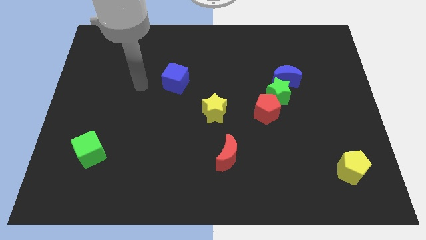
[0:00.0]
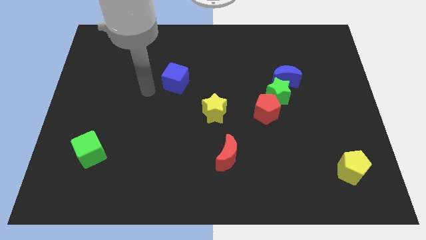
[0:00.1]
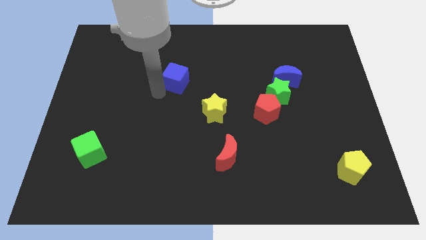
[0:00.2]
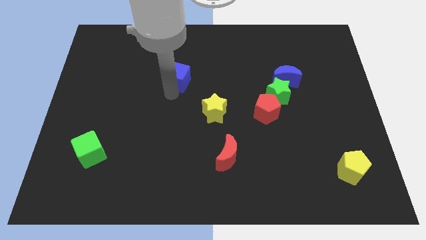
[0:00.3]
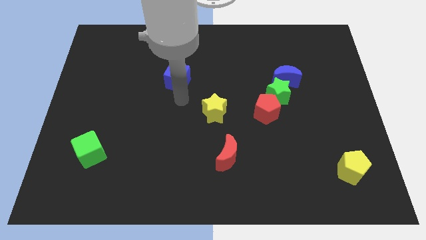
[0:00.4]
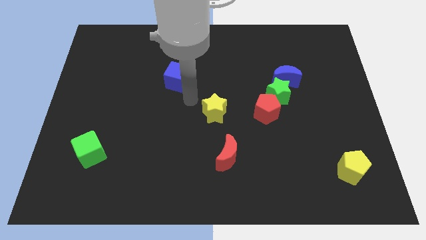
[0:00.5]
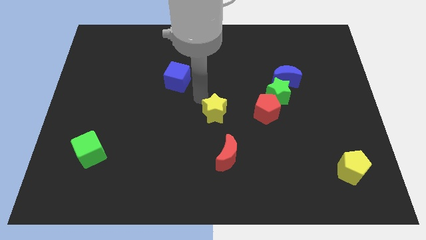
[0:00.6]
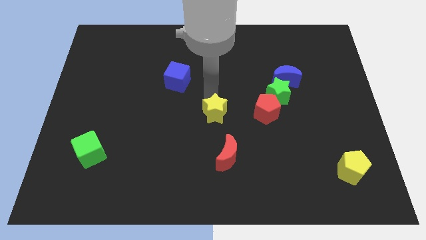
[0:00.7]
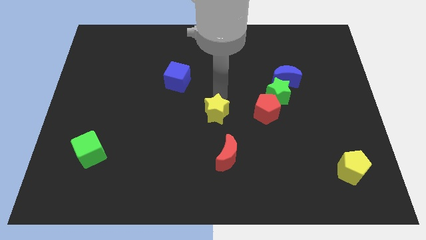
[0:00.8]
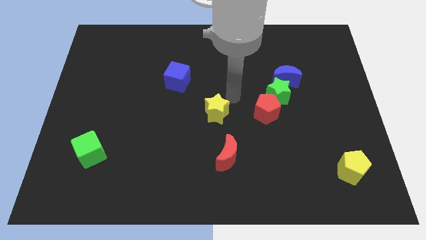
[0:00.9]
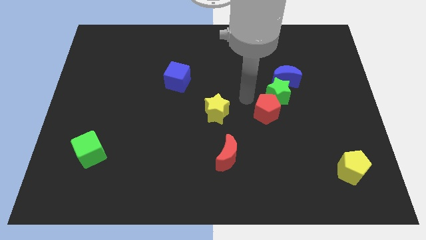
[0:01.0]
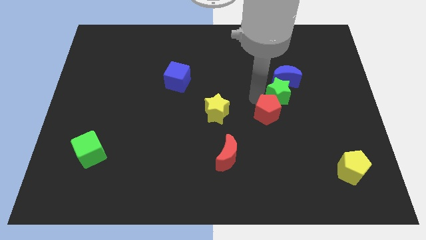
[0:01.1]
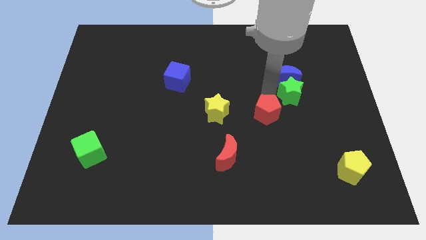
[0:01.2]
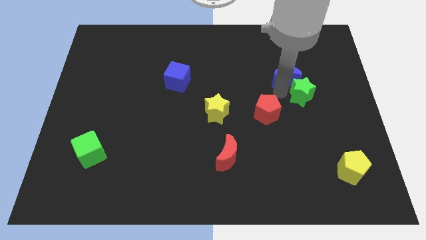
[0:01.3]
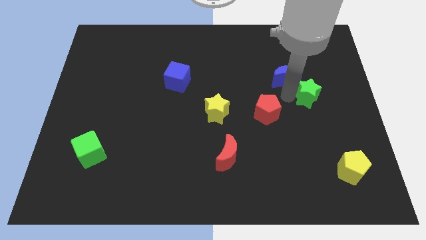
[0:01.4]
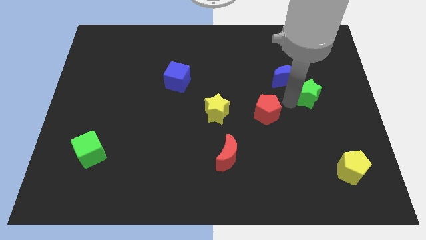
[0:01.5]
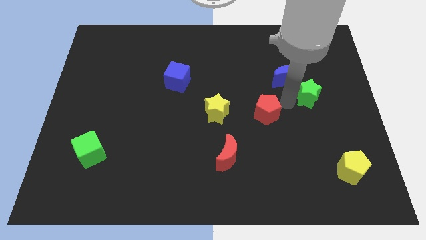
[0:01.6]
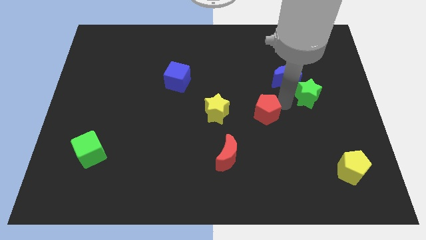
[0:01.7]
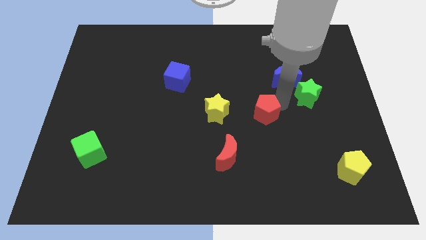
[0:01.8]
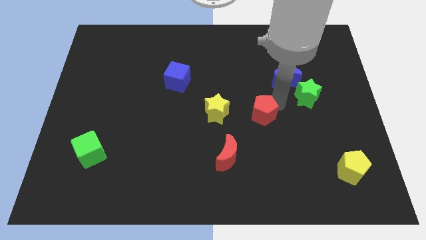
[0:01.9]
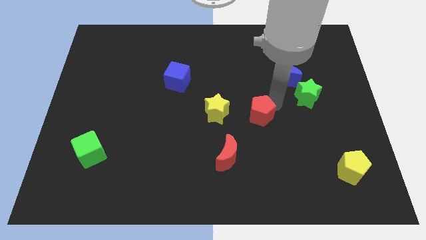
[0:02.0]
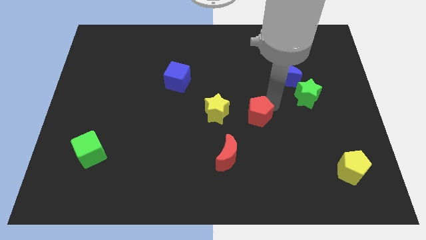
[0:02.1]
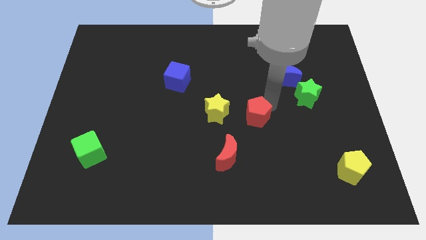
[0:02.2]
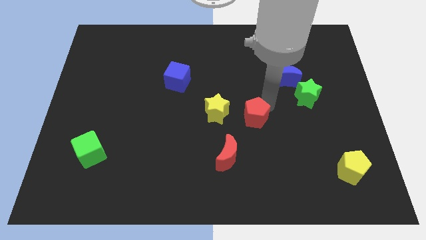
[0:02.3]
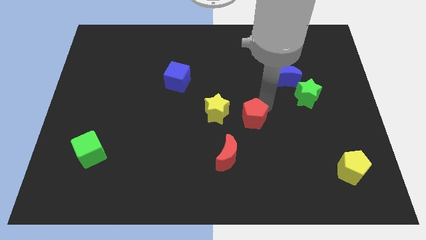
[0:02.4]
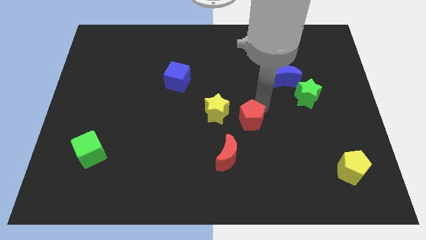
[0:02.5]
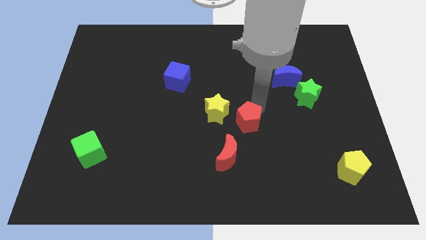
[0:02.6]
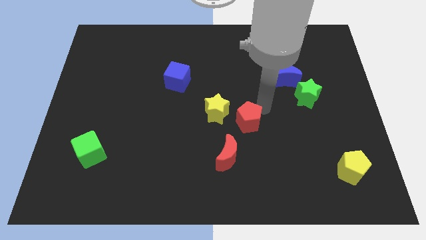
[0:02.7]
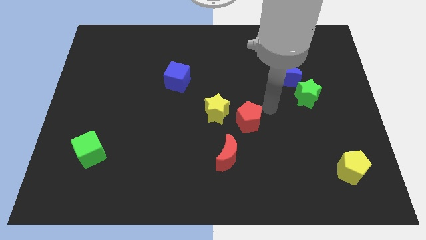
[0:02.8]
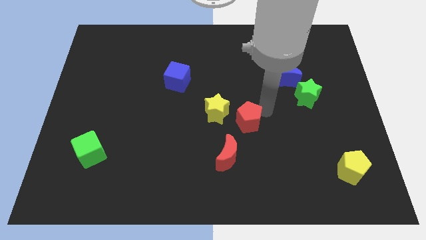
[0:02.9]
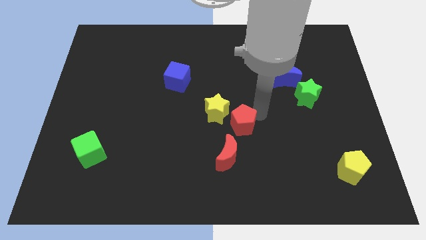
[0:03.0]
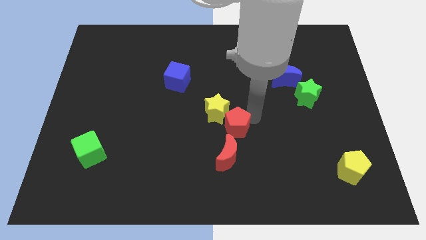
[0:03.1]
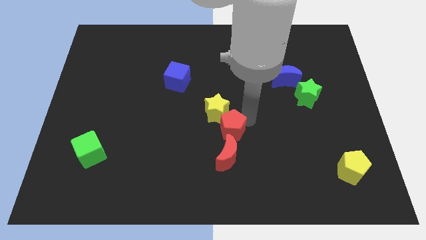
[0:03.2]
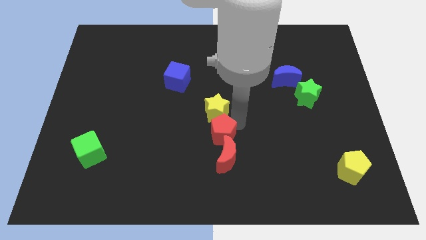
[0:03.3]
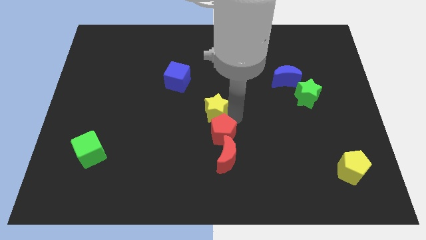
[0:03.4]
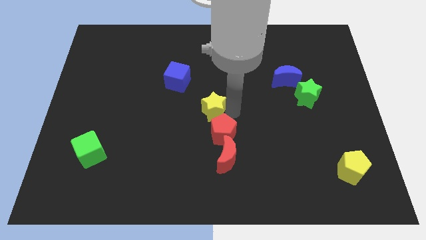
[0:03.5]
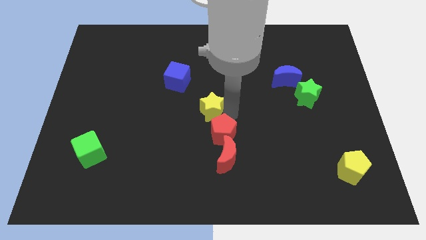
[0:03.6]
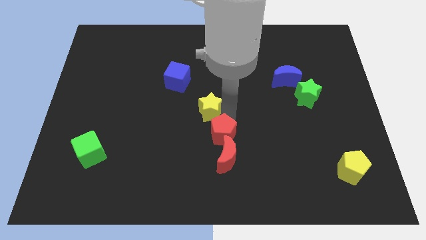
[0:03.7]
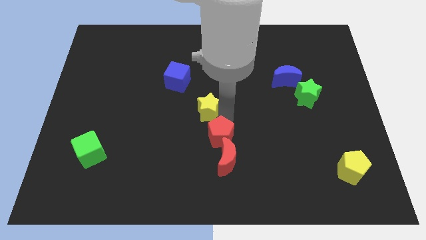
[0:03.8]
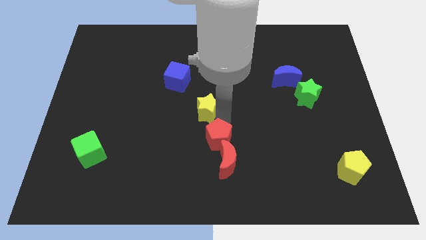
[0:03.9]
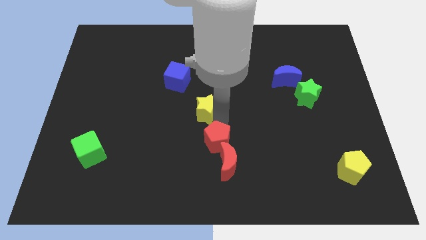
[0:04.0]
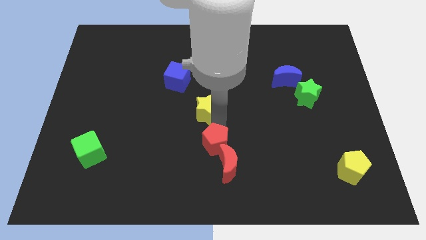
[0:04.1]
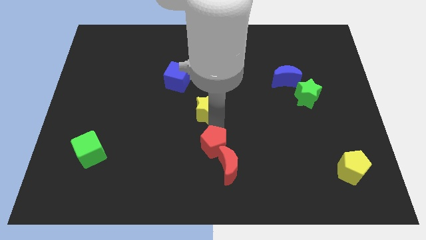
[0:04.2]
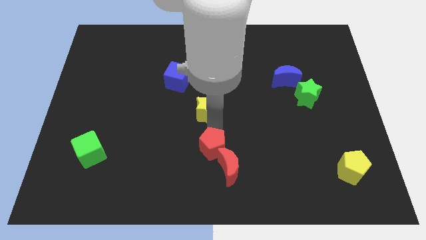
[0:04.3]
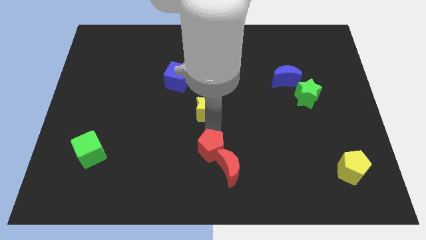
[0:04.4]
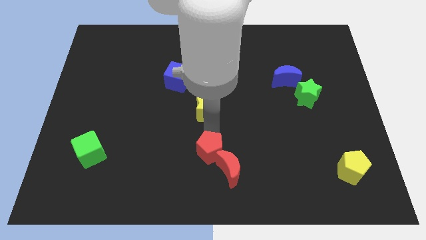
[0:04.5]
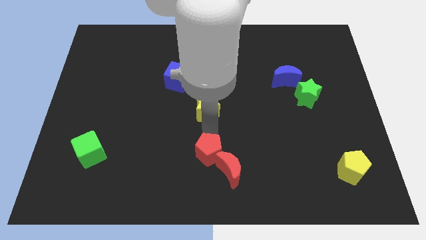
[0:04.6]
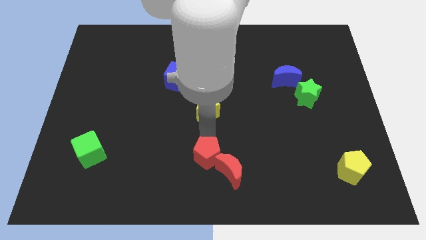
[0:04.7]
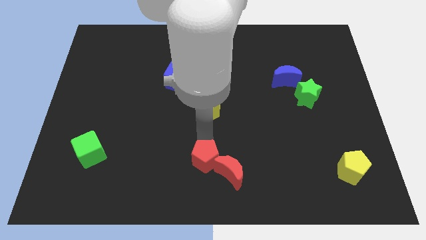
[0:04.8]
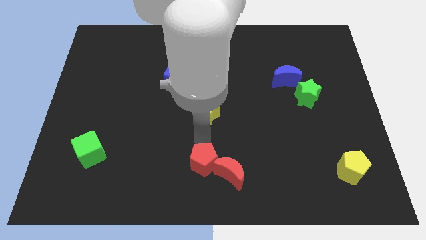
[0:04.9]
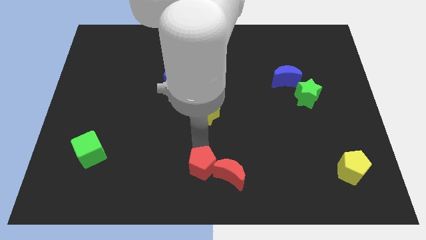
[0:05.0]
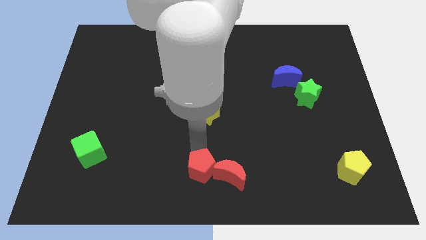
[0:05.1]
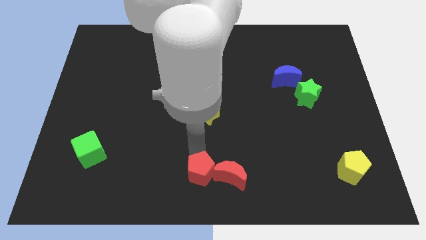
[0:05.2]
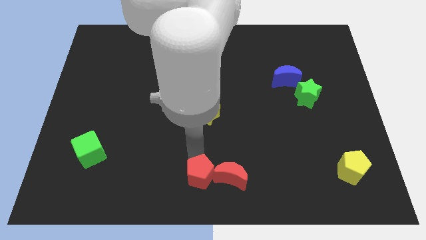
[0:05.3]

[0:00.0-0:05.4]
push the red pentagon diagonally down and to the left of the red moon

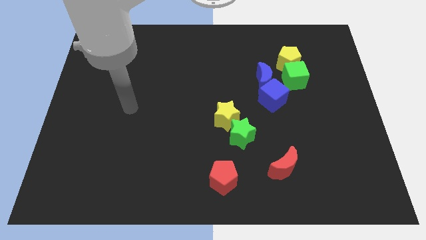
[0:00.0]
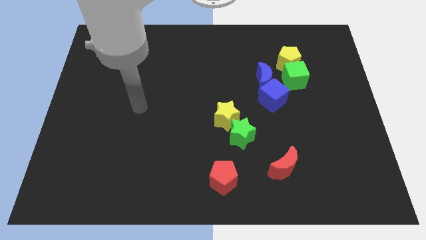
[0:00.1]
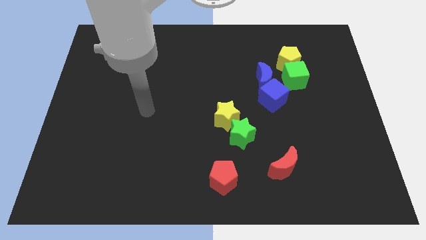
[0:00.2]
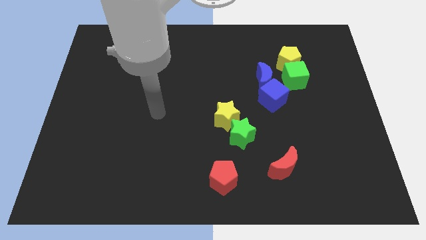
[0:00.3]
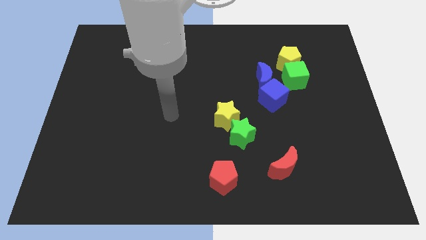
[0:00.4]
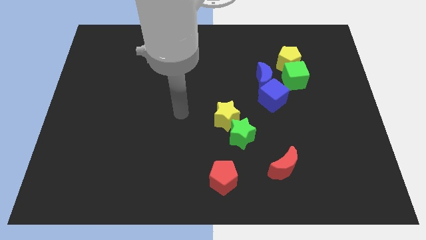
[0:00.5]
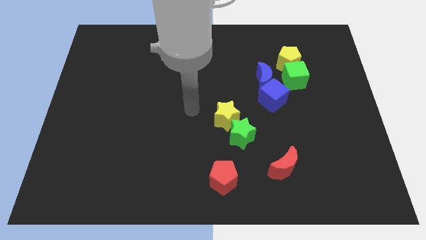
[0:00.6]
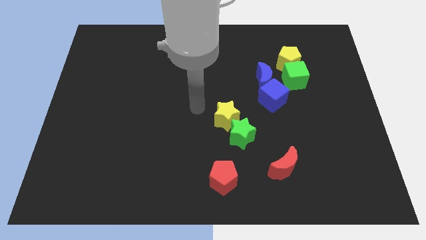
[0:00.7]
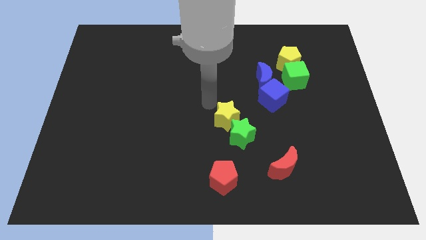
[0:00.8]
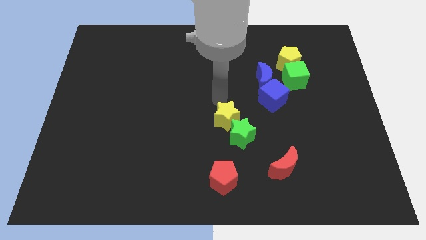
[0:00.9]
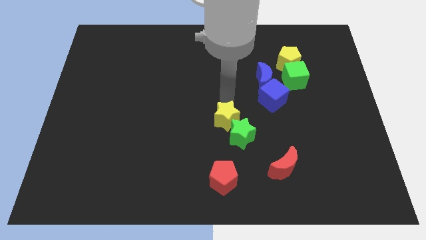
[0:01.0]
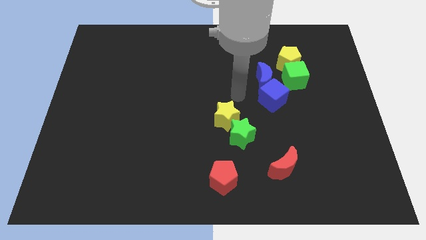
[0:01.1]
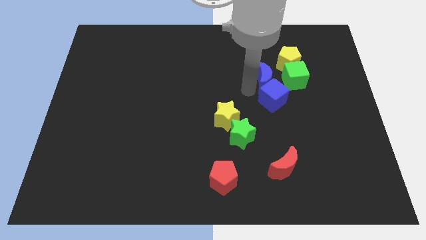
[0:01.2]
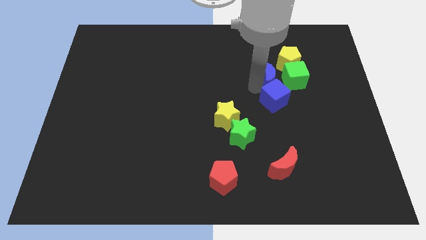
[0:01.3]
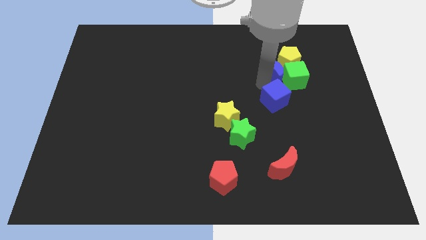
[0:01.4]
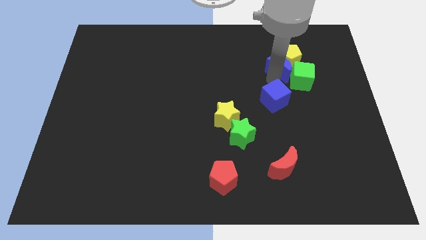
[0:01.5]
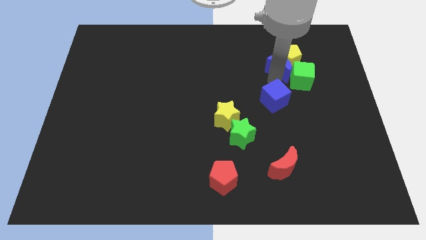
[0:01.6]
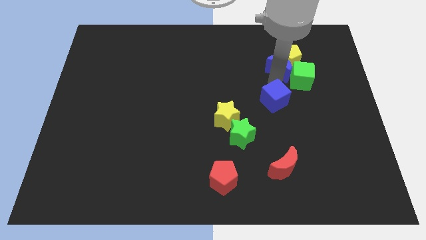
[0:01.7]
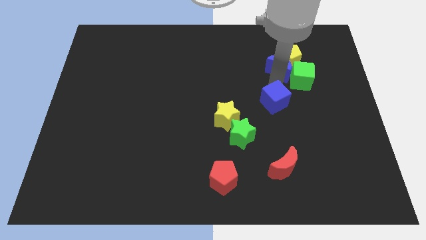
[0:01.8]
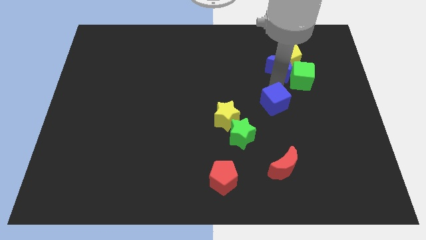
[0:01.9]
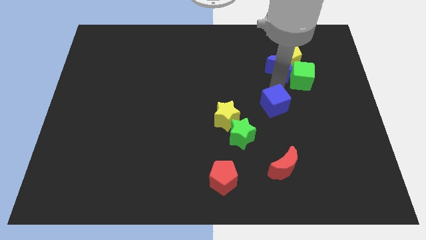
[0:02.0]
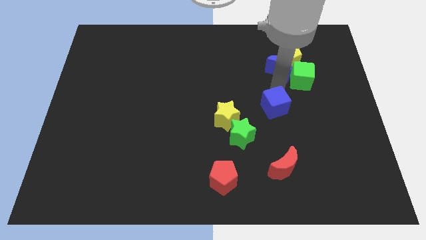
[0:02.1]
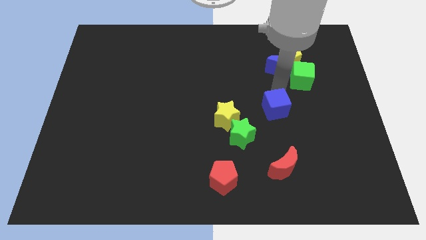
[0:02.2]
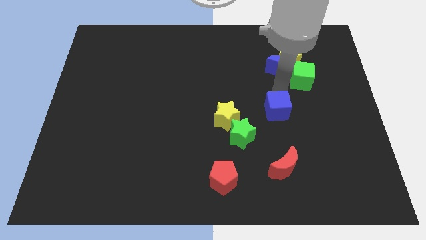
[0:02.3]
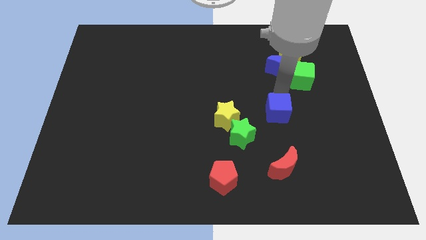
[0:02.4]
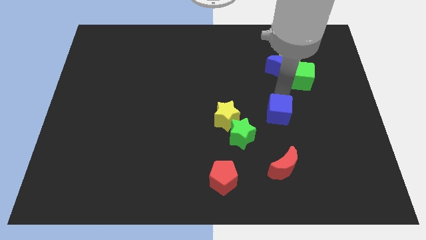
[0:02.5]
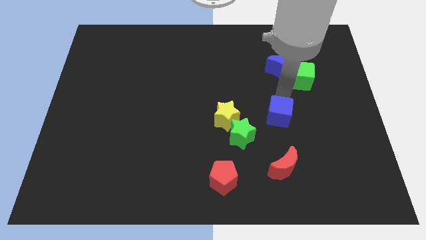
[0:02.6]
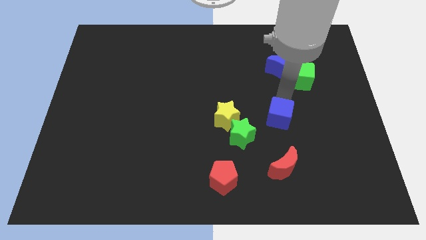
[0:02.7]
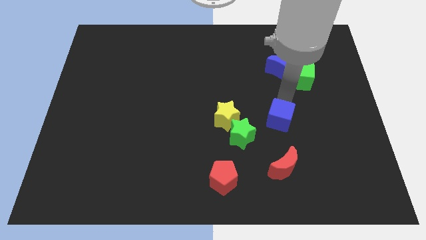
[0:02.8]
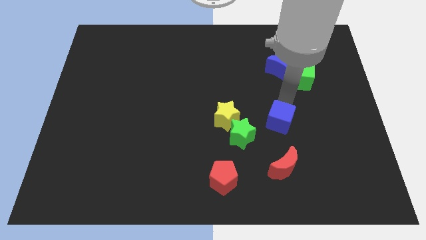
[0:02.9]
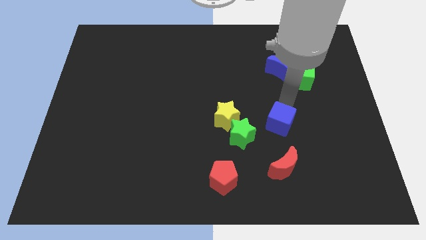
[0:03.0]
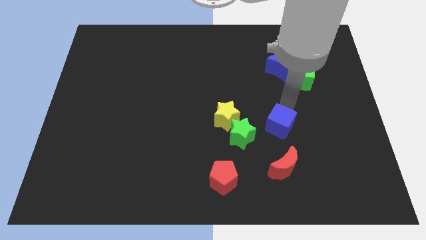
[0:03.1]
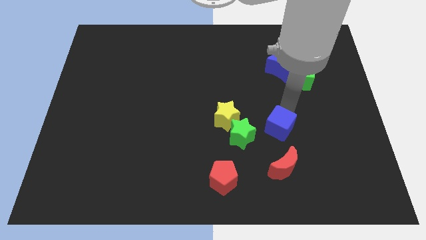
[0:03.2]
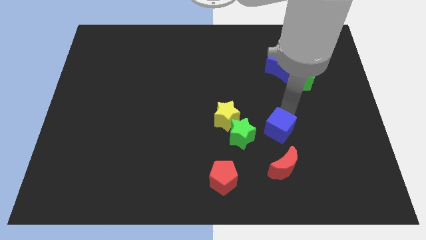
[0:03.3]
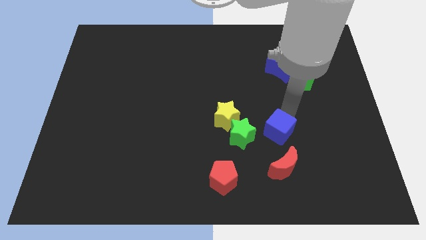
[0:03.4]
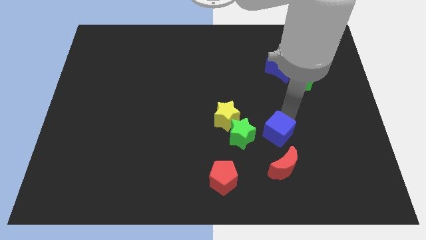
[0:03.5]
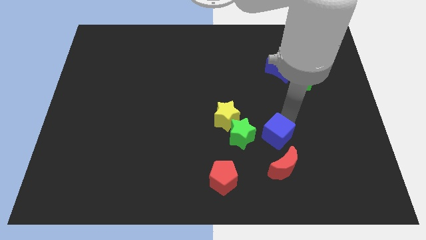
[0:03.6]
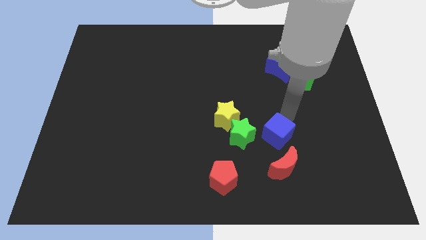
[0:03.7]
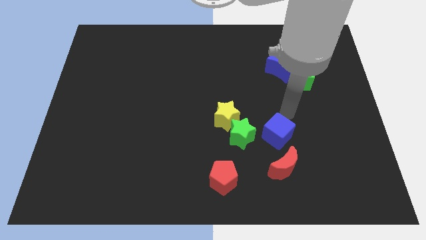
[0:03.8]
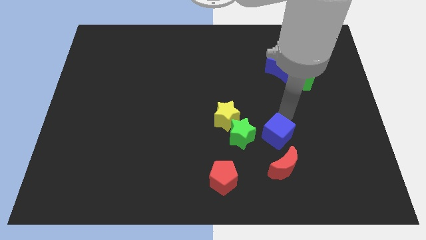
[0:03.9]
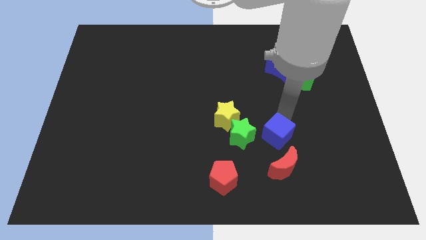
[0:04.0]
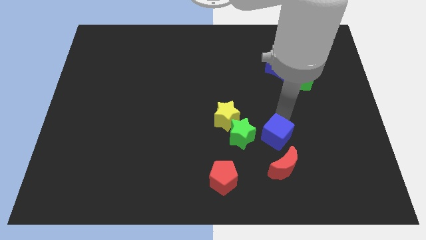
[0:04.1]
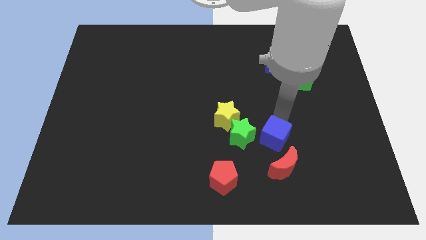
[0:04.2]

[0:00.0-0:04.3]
move the blue cube diagonally down and to the right of the green star
